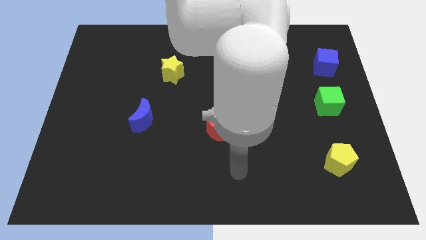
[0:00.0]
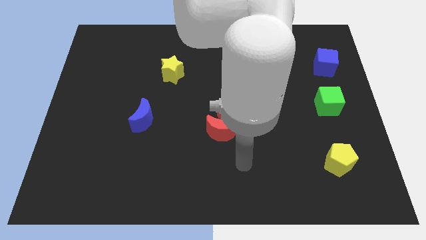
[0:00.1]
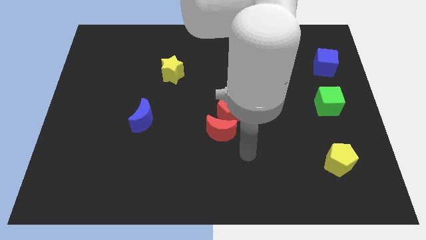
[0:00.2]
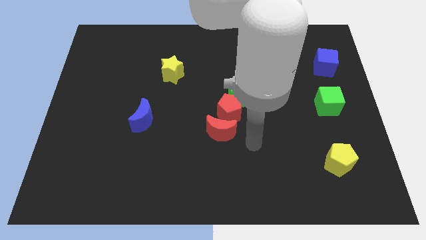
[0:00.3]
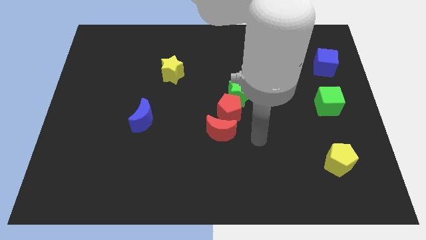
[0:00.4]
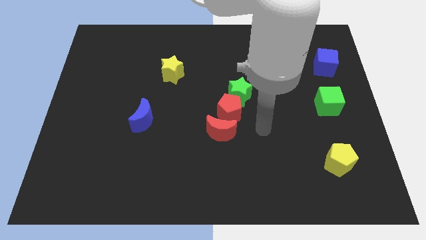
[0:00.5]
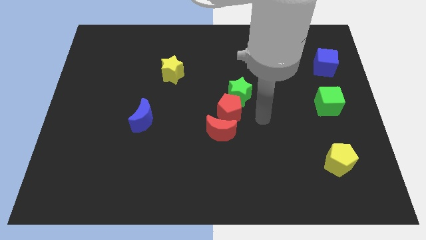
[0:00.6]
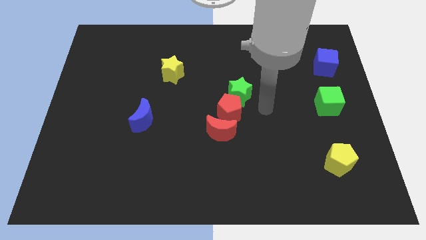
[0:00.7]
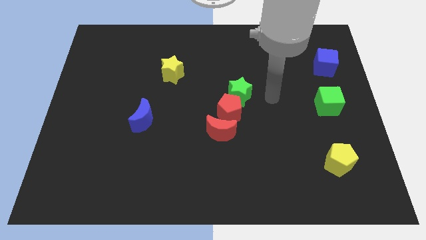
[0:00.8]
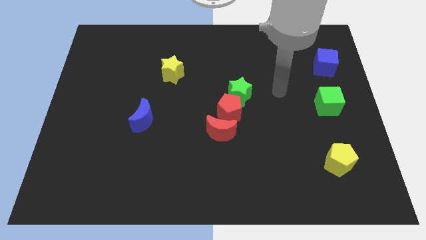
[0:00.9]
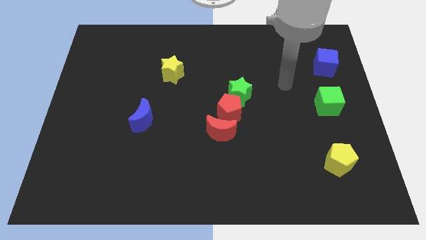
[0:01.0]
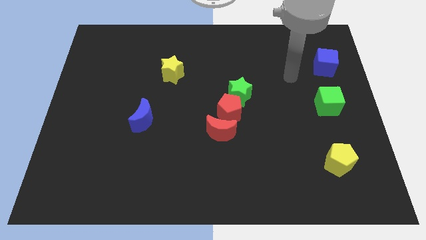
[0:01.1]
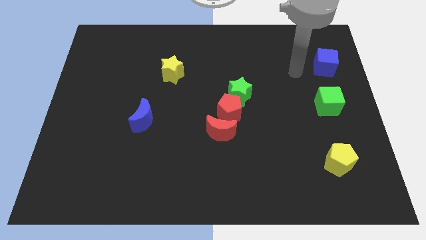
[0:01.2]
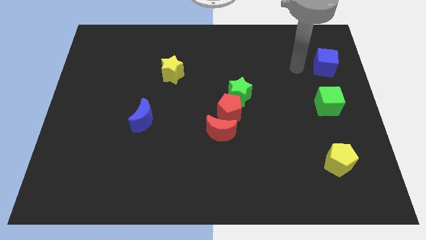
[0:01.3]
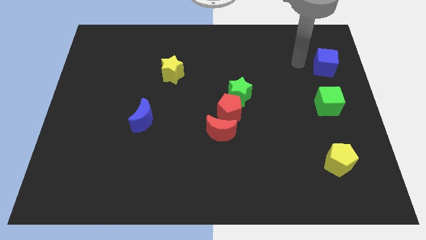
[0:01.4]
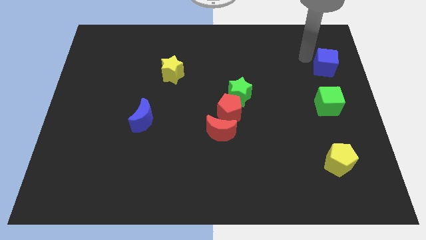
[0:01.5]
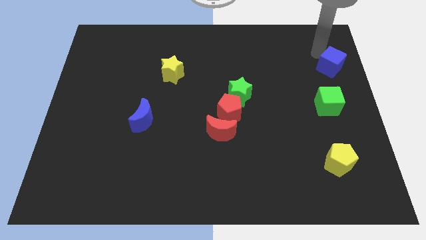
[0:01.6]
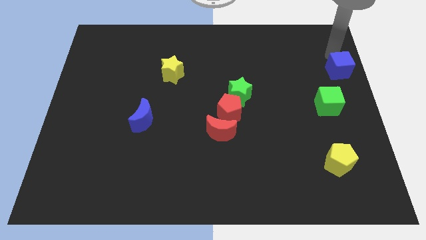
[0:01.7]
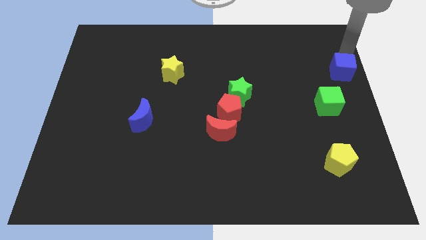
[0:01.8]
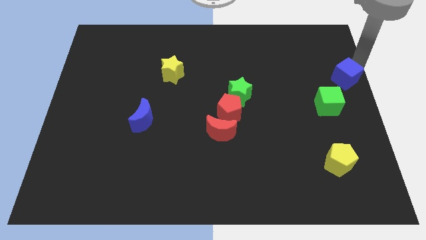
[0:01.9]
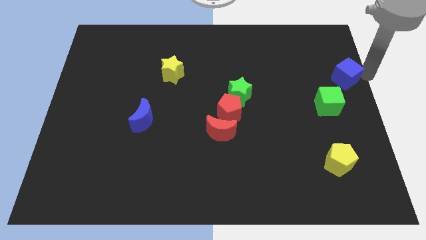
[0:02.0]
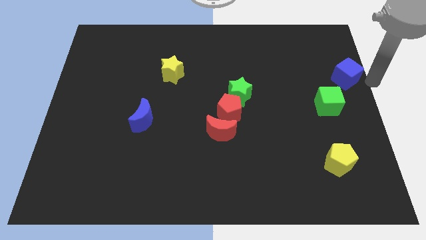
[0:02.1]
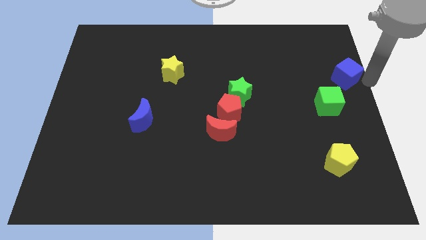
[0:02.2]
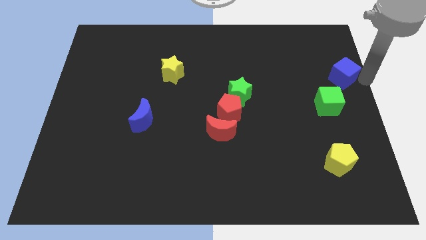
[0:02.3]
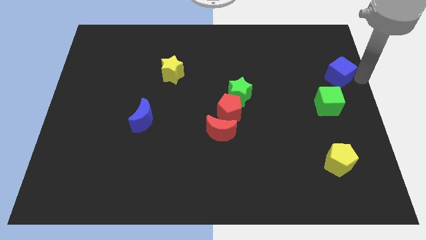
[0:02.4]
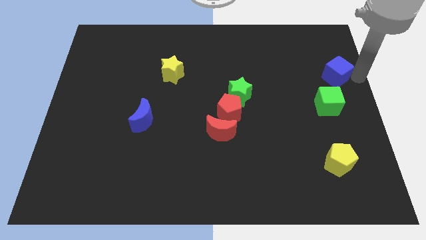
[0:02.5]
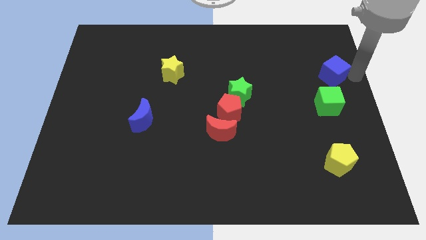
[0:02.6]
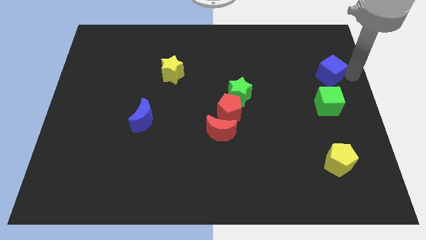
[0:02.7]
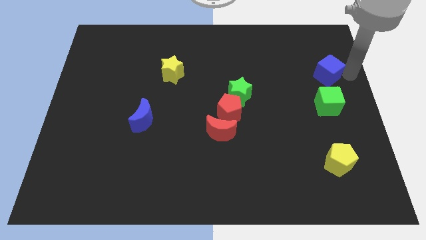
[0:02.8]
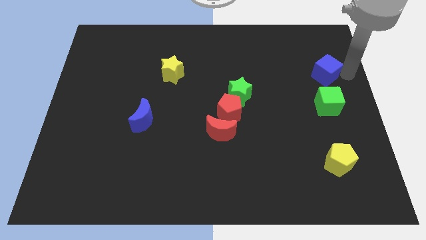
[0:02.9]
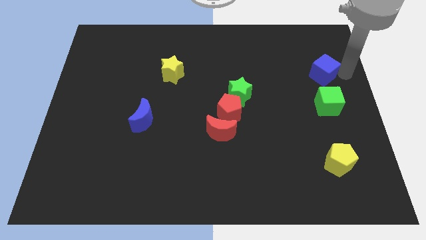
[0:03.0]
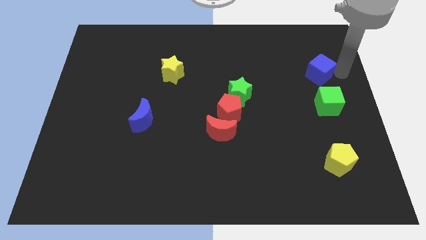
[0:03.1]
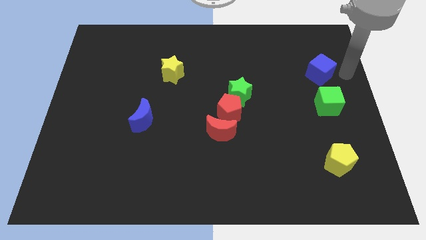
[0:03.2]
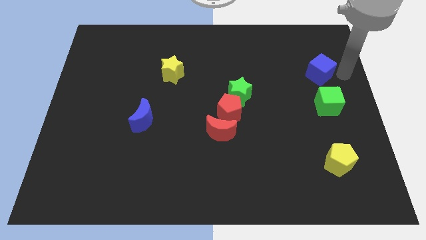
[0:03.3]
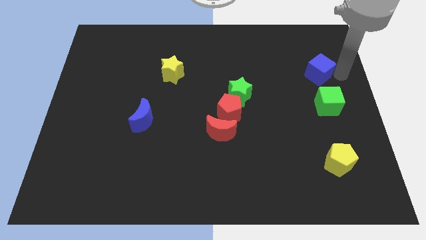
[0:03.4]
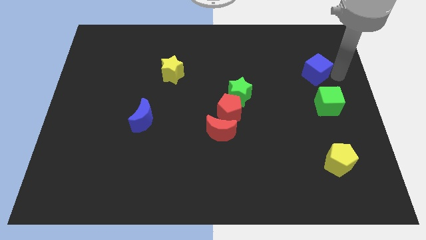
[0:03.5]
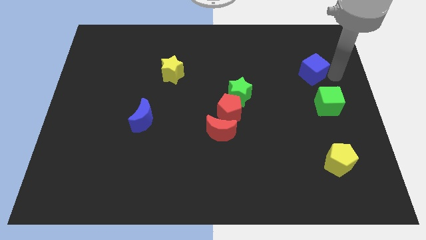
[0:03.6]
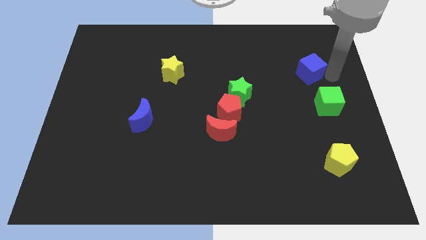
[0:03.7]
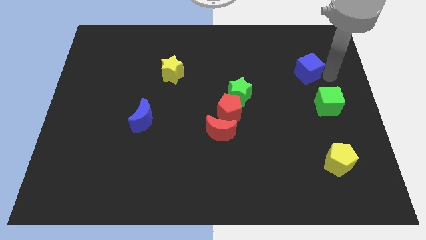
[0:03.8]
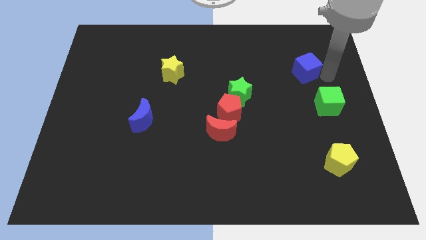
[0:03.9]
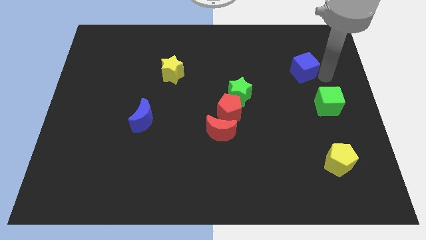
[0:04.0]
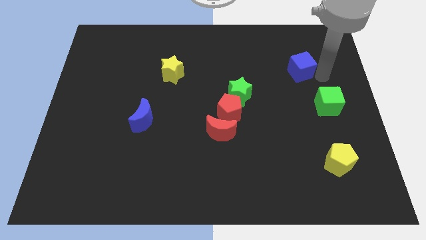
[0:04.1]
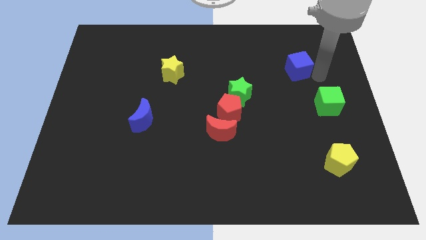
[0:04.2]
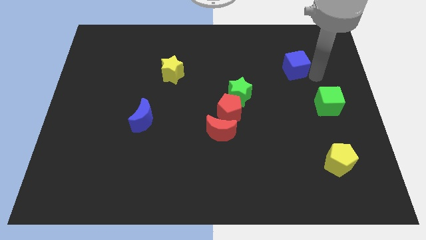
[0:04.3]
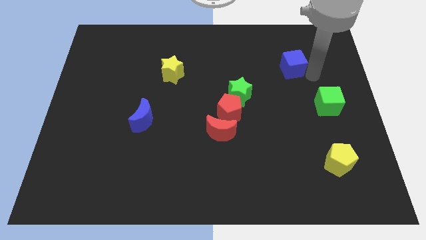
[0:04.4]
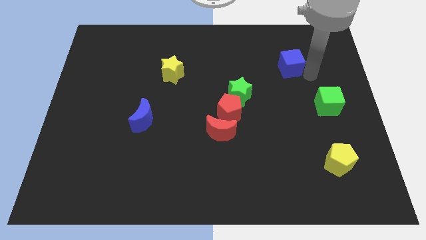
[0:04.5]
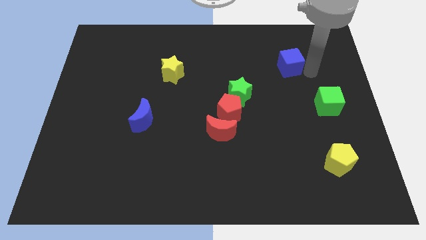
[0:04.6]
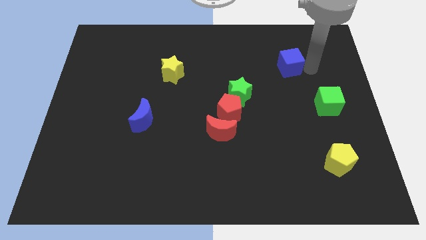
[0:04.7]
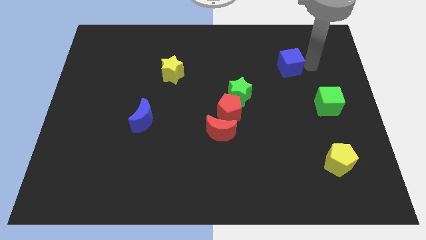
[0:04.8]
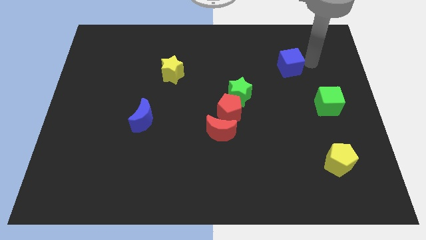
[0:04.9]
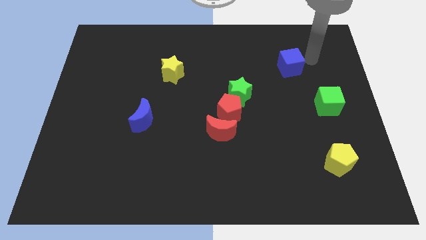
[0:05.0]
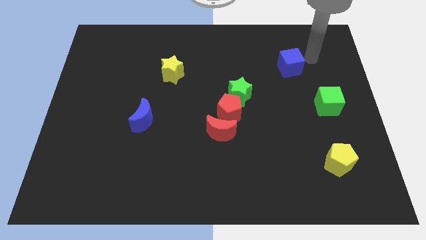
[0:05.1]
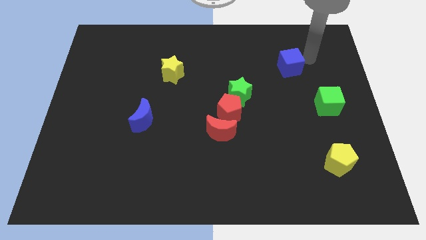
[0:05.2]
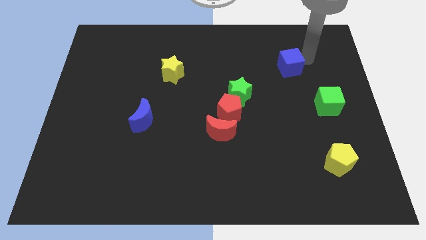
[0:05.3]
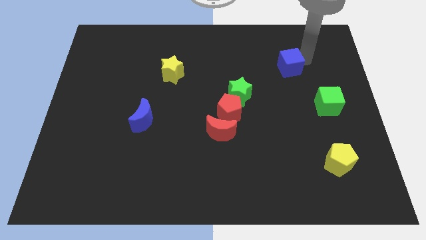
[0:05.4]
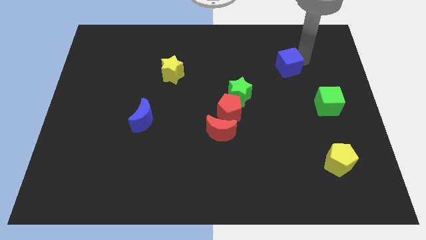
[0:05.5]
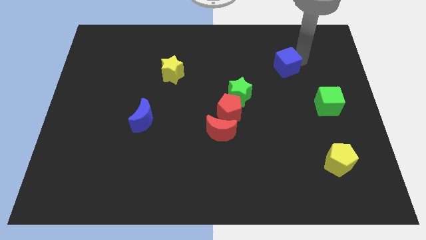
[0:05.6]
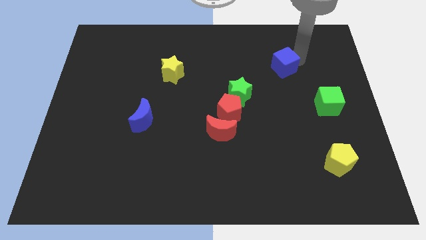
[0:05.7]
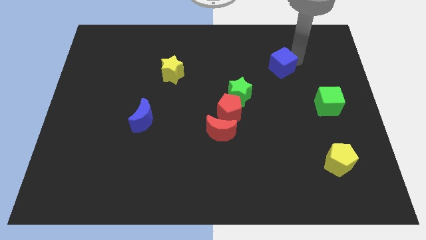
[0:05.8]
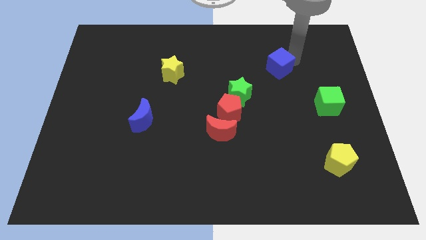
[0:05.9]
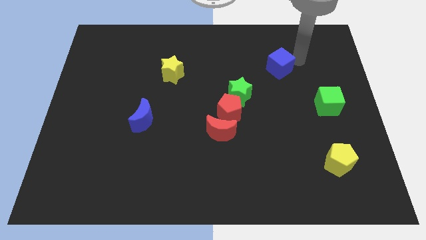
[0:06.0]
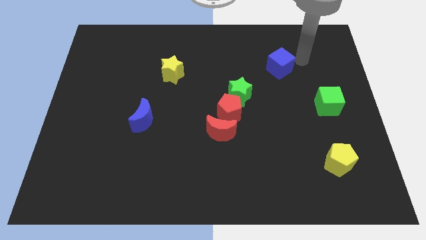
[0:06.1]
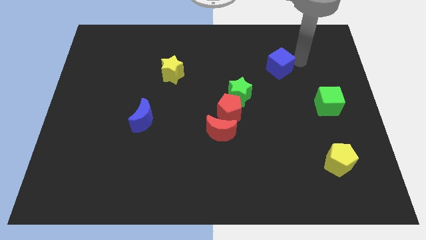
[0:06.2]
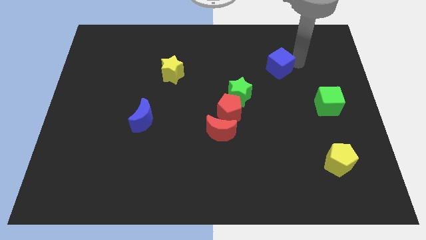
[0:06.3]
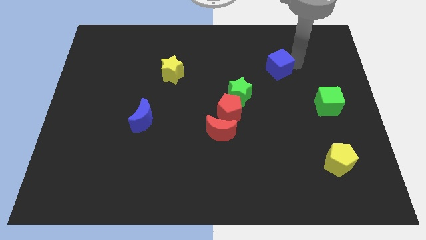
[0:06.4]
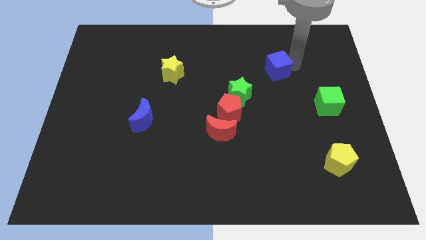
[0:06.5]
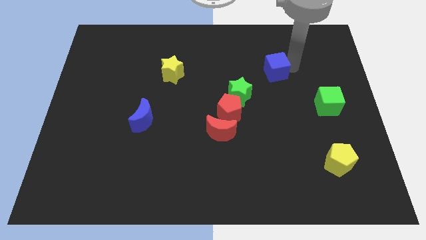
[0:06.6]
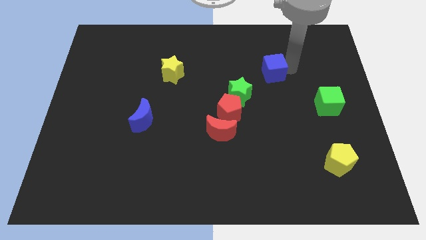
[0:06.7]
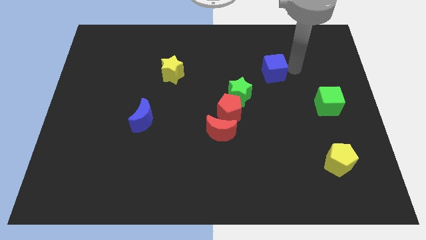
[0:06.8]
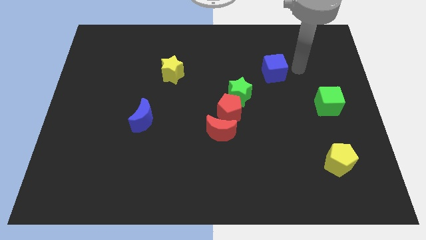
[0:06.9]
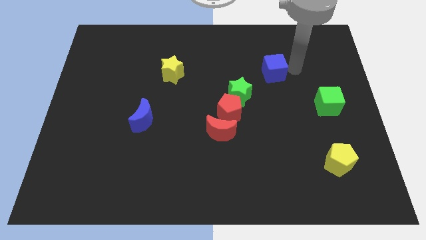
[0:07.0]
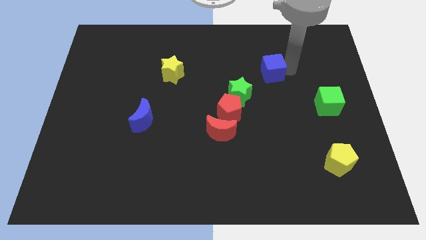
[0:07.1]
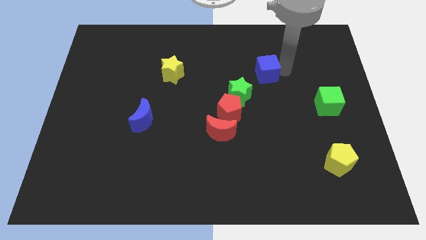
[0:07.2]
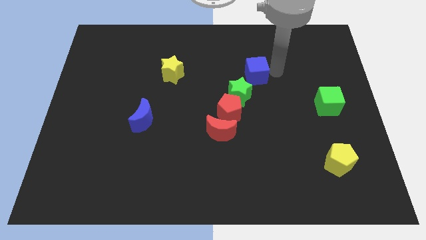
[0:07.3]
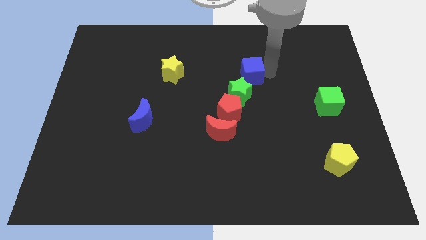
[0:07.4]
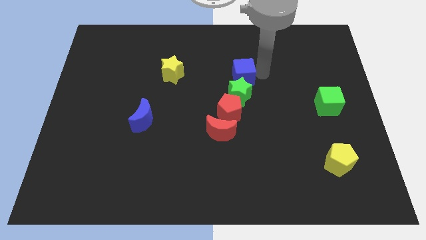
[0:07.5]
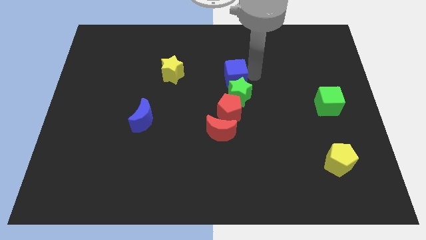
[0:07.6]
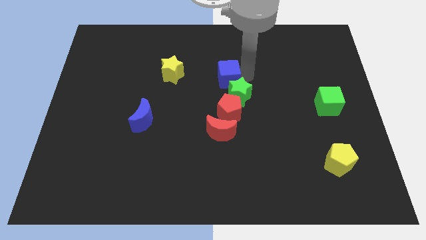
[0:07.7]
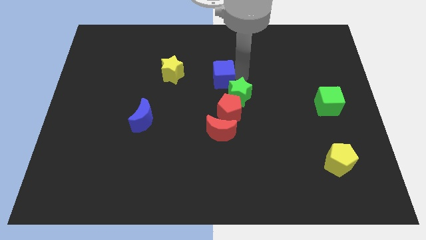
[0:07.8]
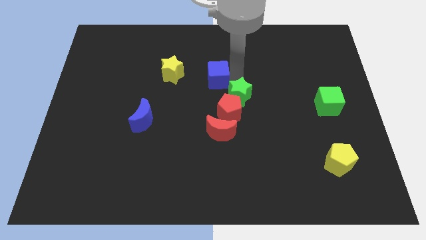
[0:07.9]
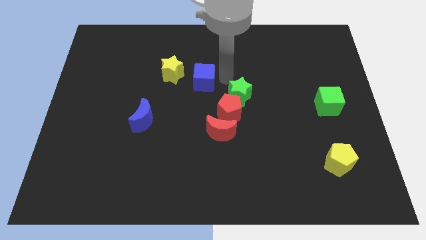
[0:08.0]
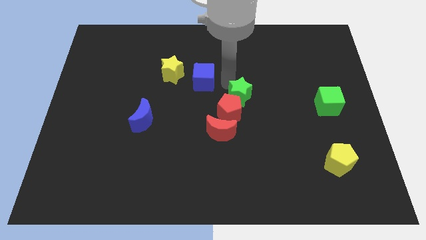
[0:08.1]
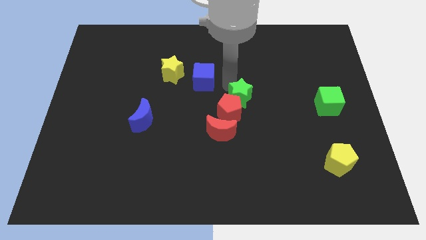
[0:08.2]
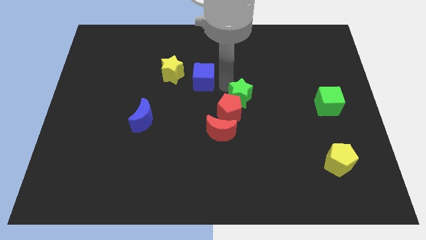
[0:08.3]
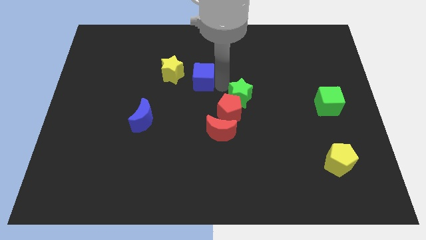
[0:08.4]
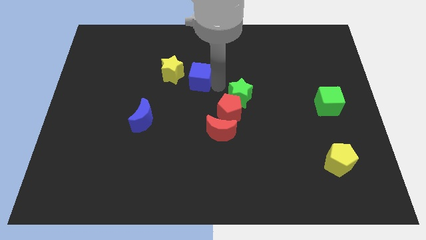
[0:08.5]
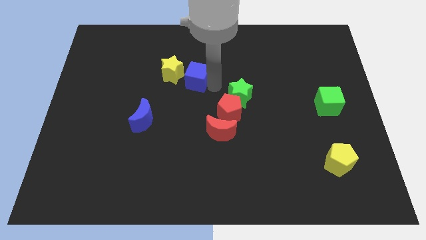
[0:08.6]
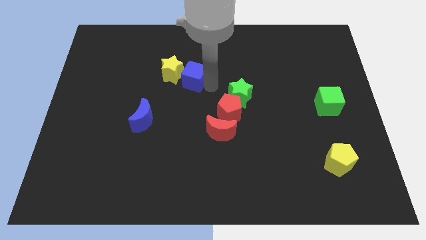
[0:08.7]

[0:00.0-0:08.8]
put the blue cube next to the yellow star
